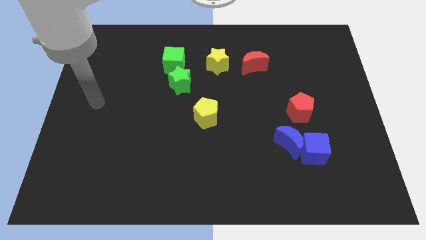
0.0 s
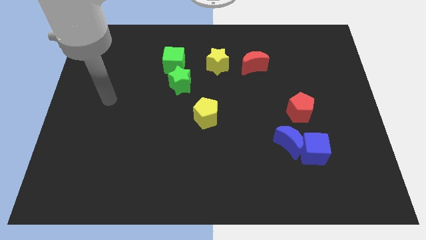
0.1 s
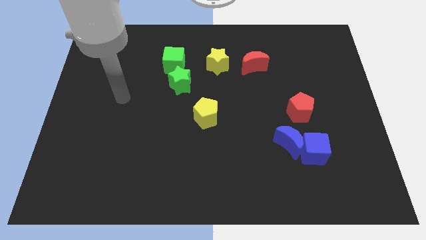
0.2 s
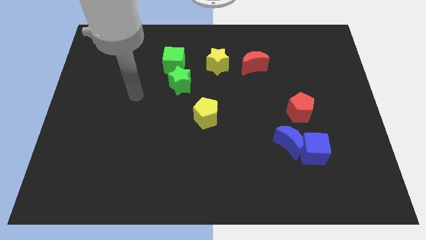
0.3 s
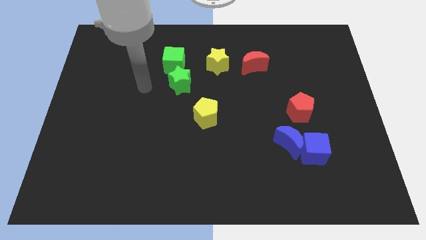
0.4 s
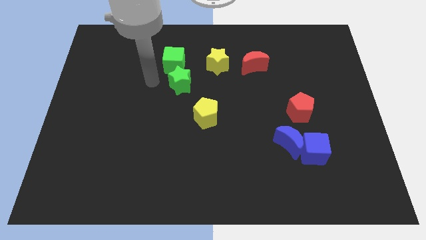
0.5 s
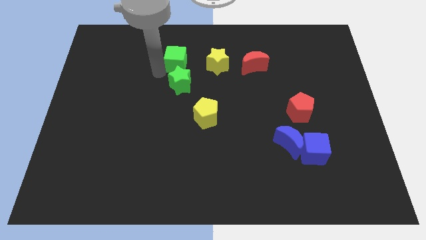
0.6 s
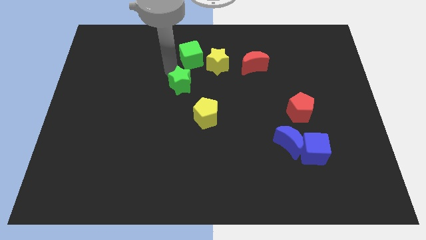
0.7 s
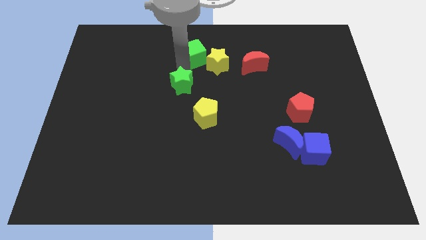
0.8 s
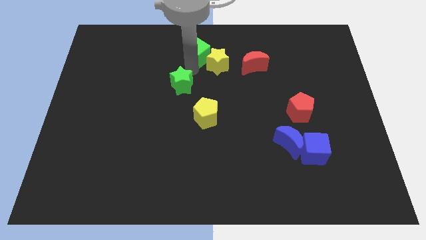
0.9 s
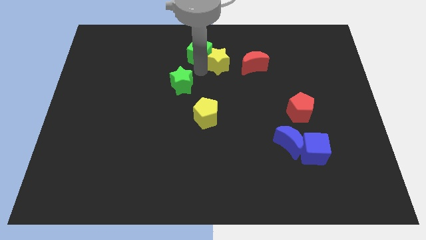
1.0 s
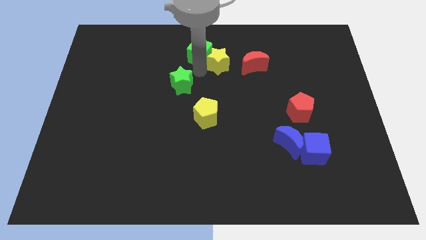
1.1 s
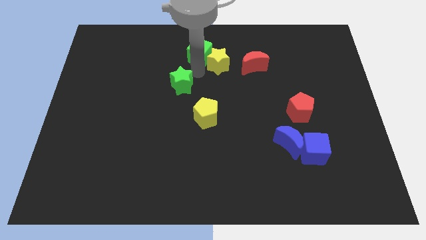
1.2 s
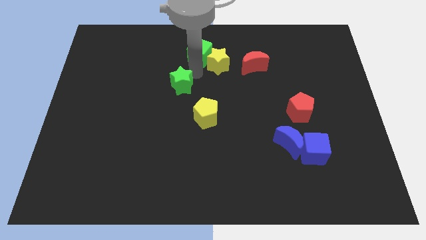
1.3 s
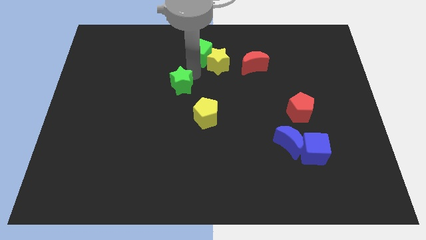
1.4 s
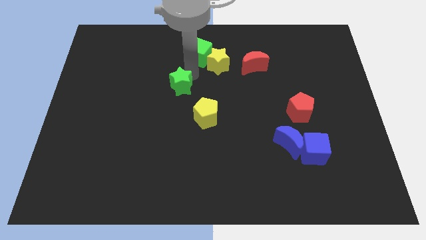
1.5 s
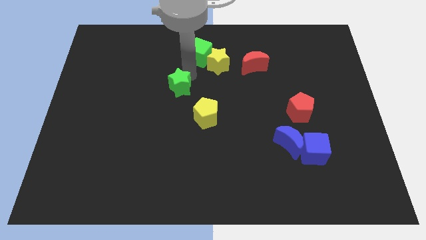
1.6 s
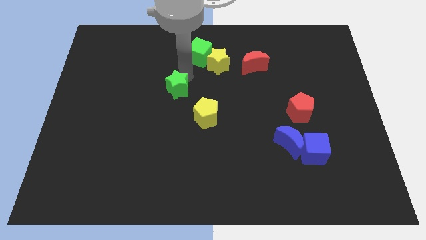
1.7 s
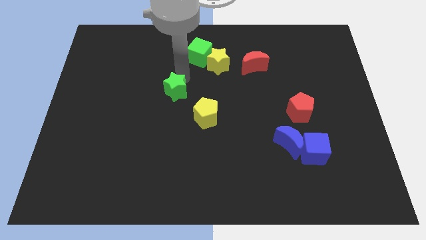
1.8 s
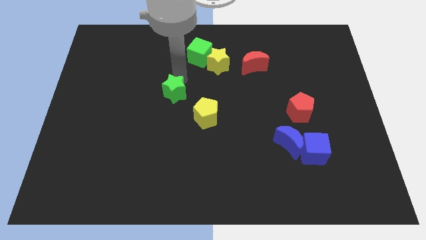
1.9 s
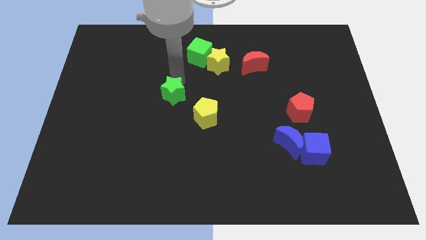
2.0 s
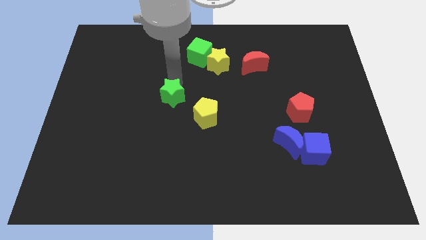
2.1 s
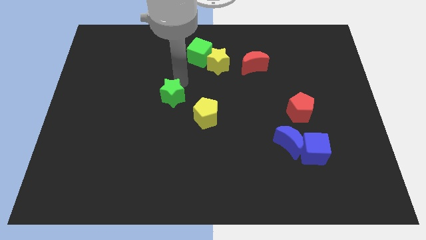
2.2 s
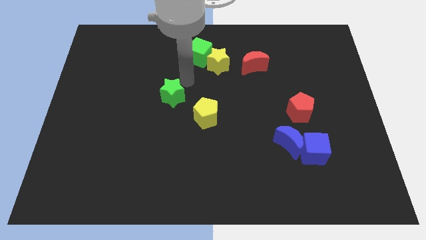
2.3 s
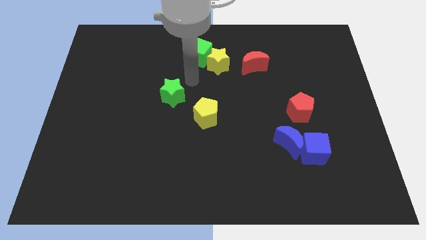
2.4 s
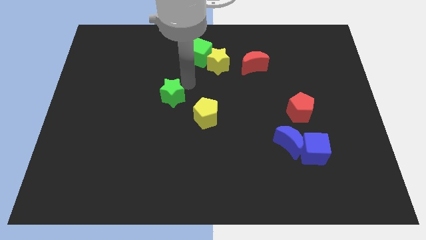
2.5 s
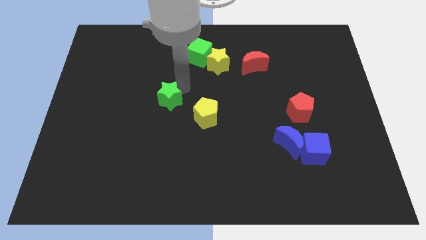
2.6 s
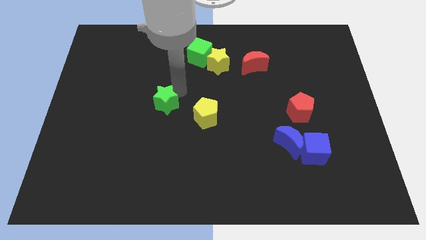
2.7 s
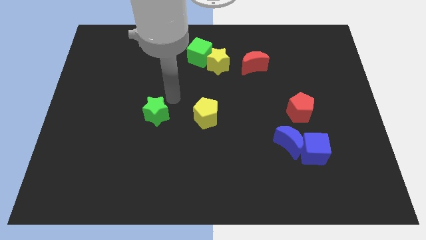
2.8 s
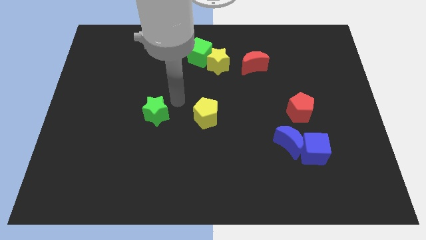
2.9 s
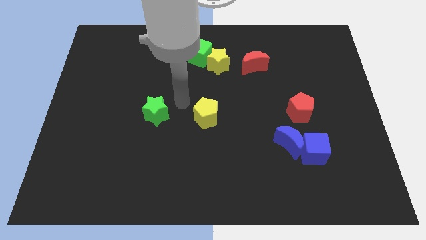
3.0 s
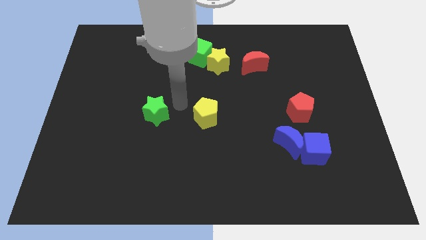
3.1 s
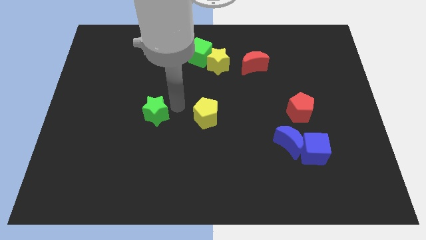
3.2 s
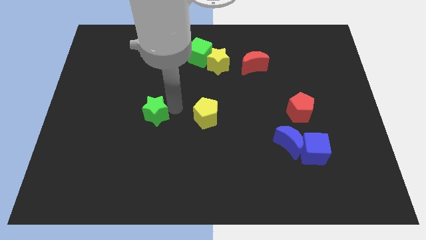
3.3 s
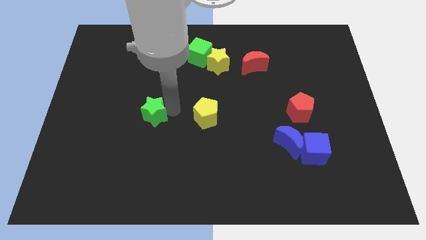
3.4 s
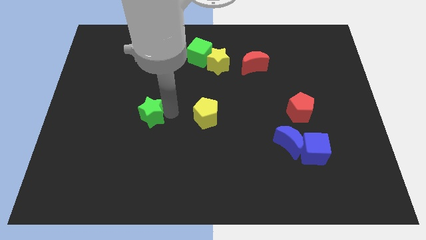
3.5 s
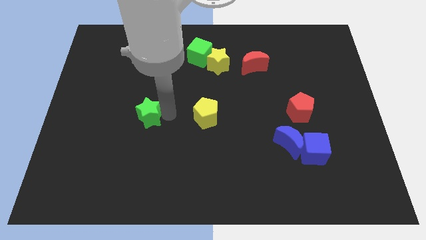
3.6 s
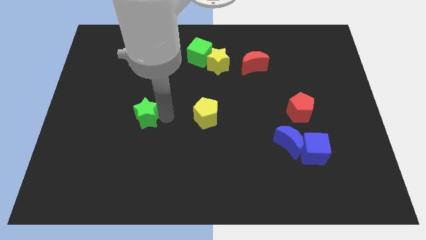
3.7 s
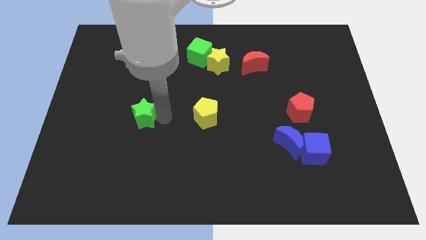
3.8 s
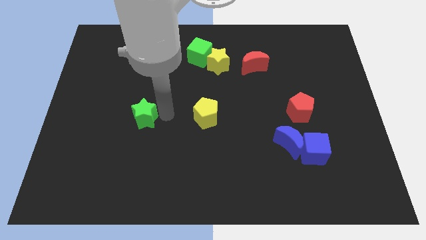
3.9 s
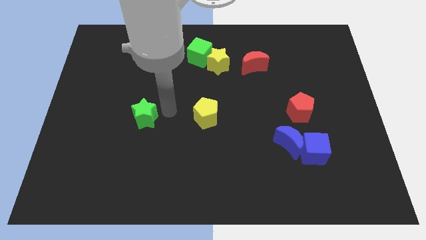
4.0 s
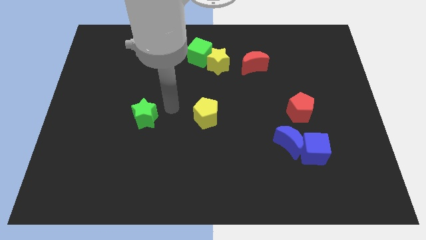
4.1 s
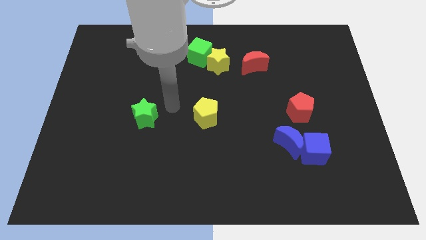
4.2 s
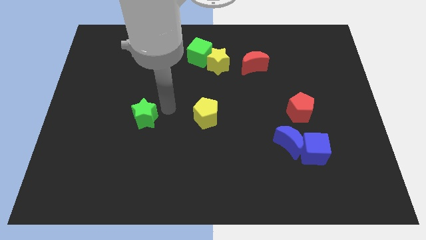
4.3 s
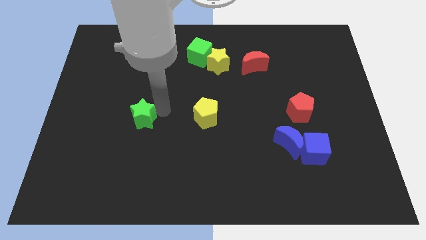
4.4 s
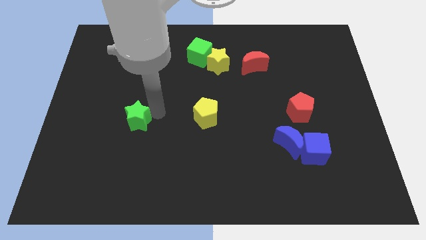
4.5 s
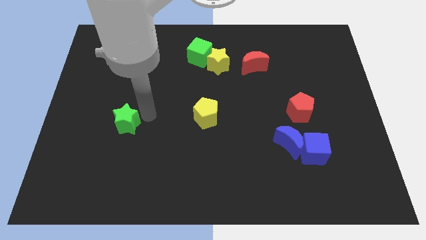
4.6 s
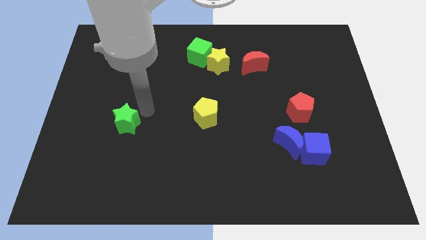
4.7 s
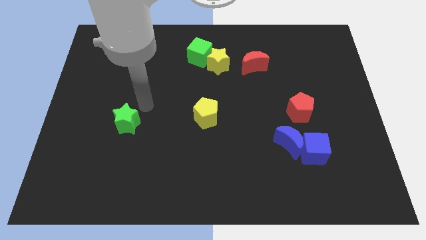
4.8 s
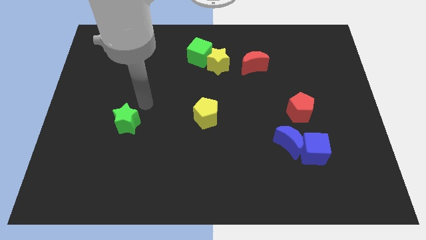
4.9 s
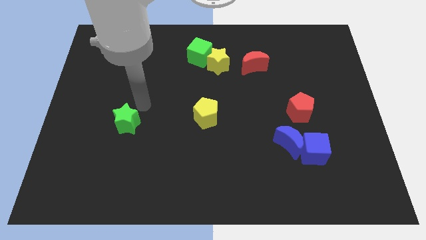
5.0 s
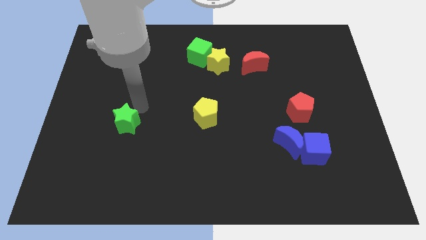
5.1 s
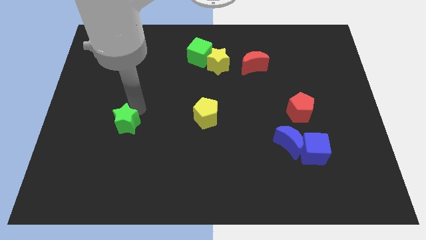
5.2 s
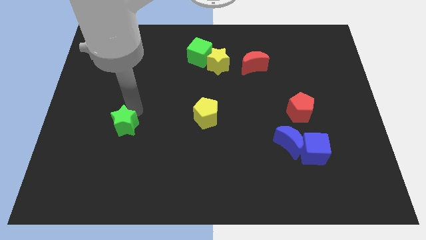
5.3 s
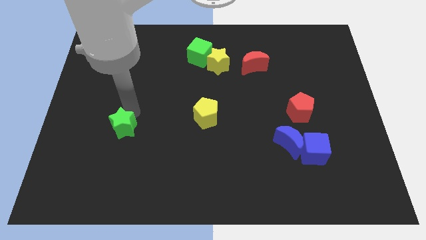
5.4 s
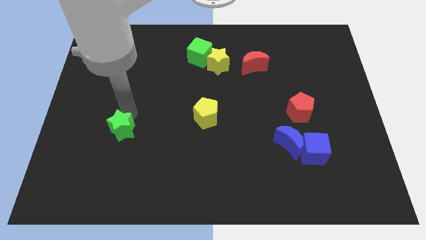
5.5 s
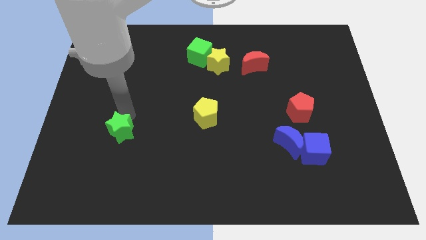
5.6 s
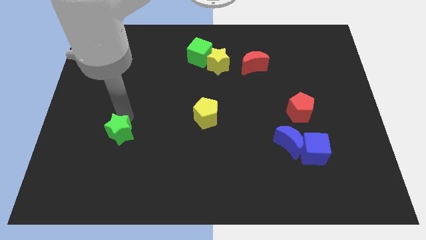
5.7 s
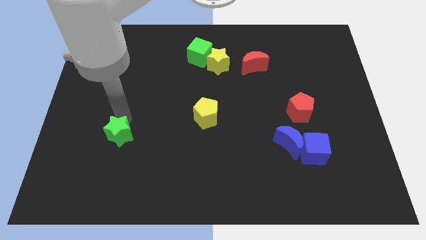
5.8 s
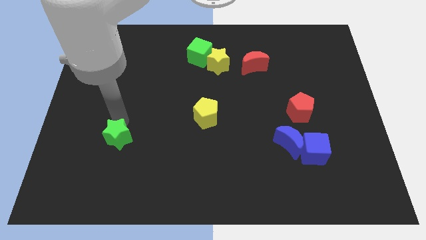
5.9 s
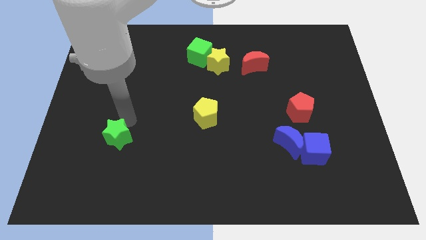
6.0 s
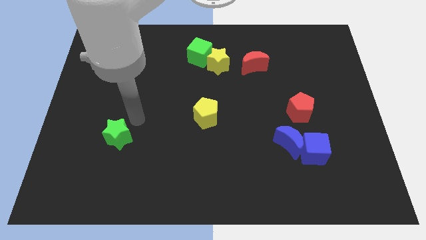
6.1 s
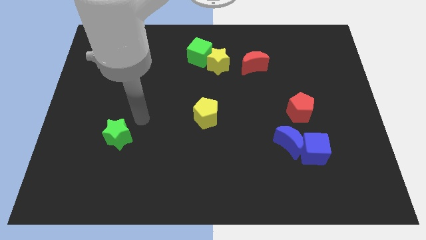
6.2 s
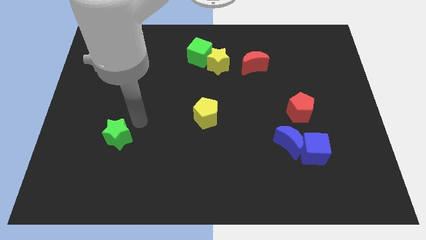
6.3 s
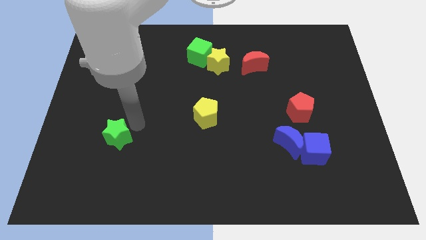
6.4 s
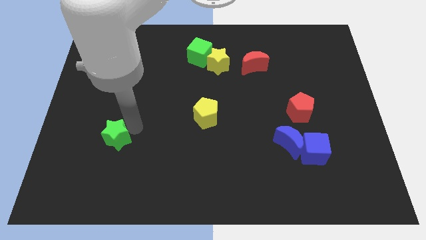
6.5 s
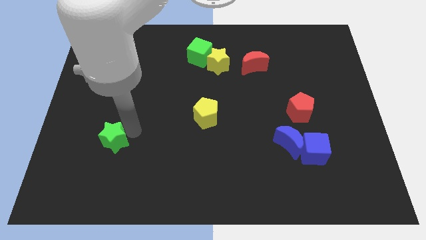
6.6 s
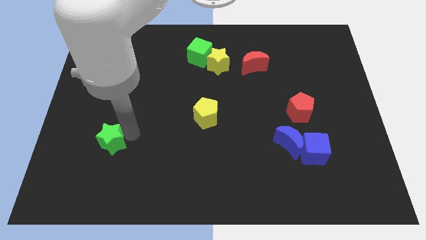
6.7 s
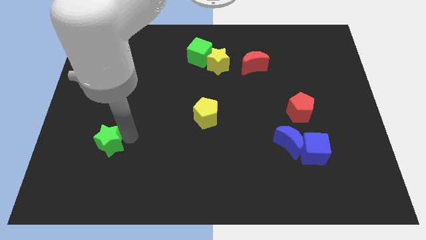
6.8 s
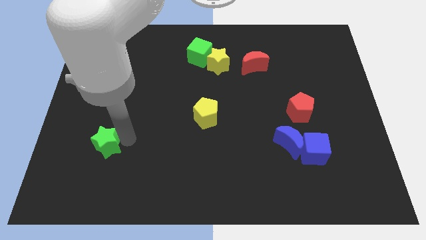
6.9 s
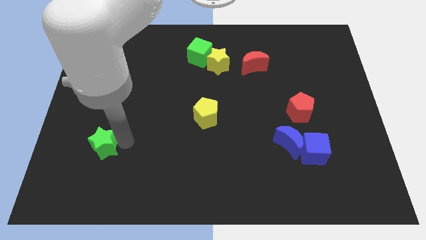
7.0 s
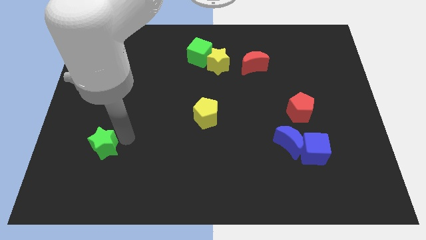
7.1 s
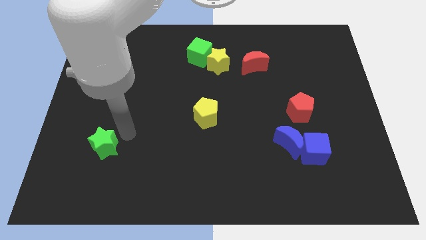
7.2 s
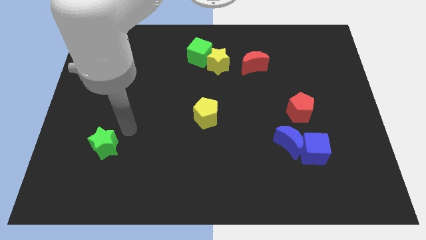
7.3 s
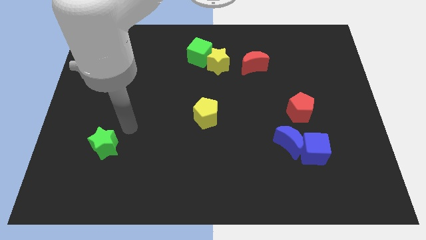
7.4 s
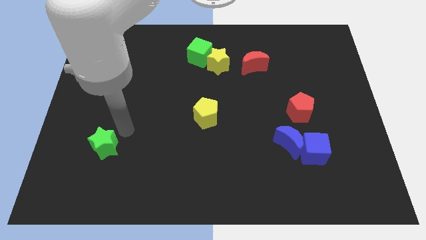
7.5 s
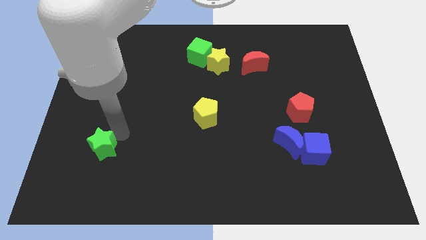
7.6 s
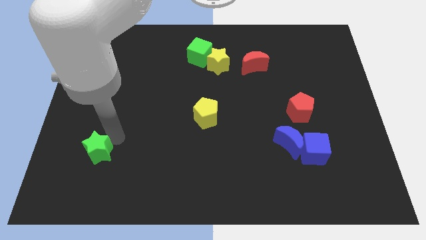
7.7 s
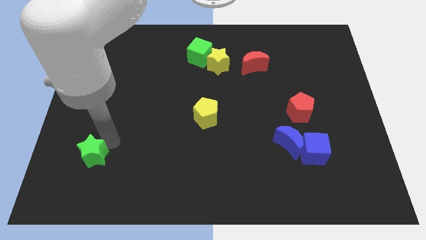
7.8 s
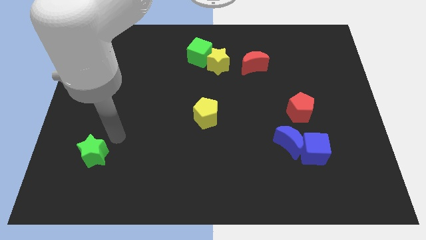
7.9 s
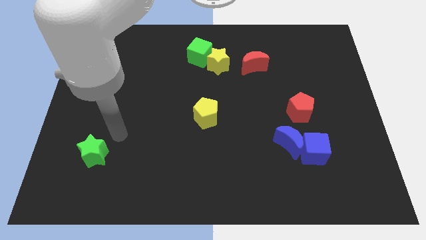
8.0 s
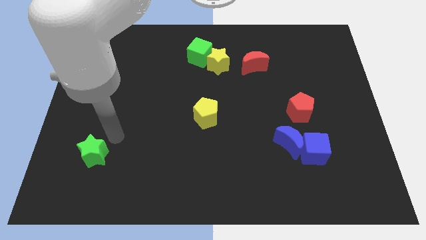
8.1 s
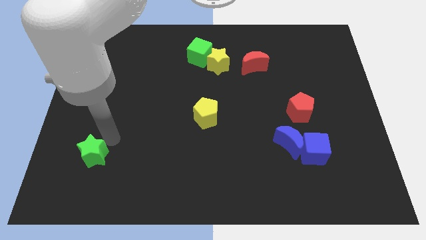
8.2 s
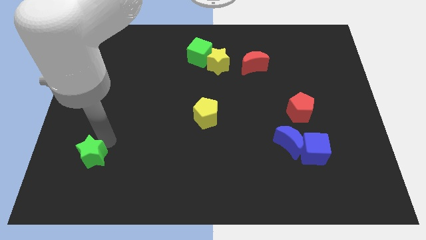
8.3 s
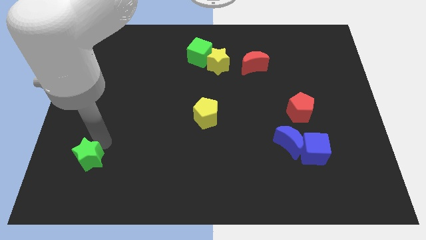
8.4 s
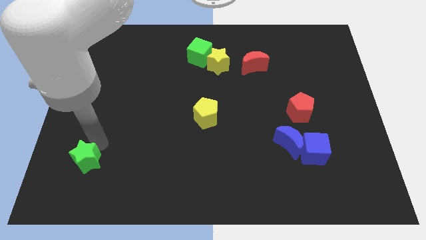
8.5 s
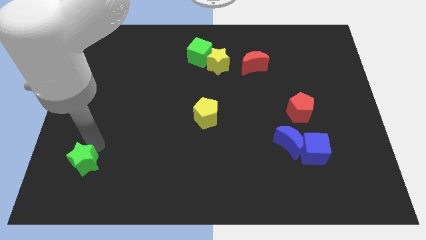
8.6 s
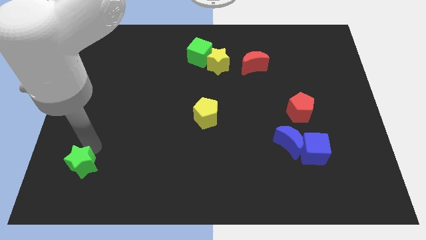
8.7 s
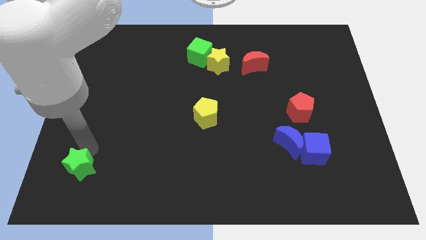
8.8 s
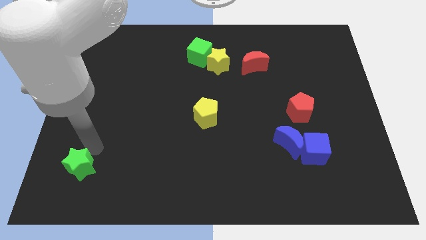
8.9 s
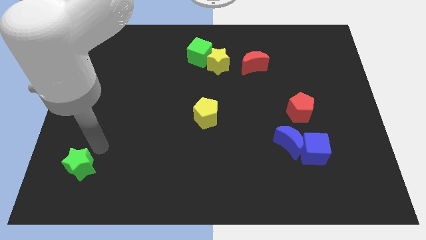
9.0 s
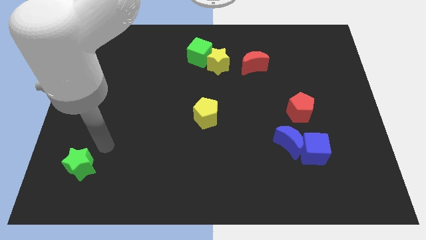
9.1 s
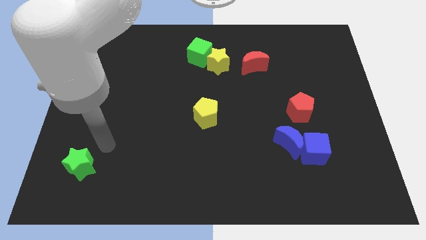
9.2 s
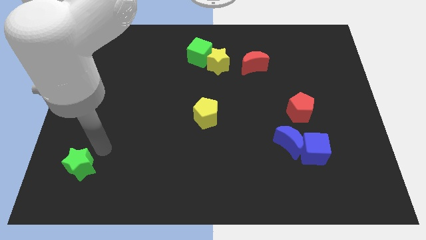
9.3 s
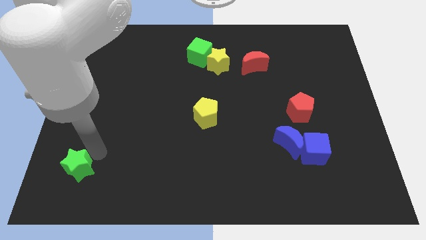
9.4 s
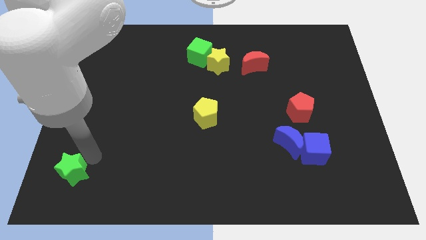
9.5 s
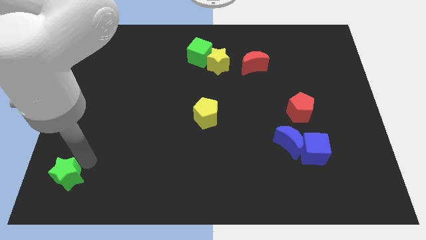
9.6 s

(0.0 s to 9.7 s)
move the green star to the lower left corner
